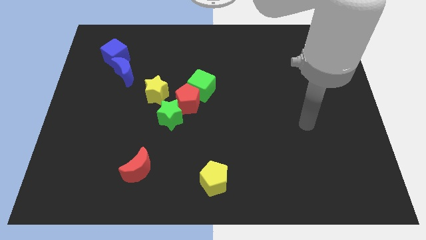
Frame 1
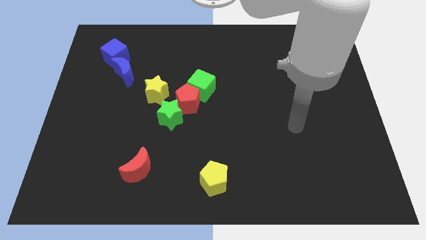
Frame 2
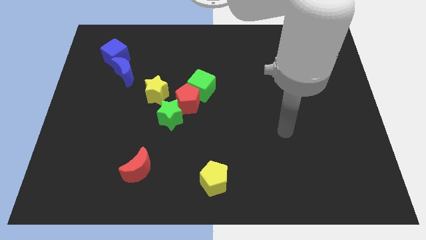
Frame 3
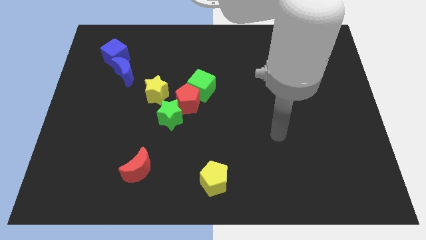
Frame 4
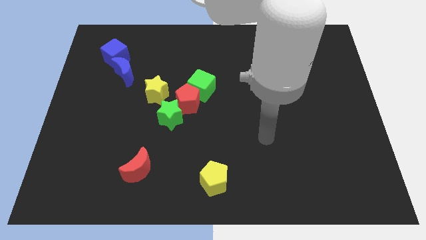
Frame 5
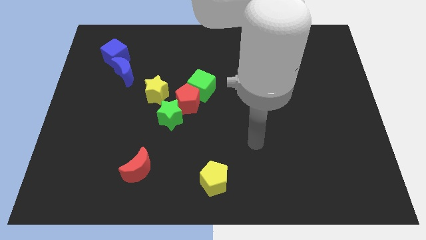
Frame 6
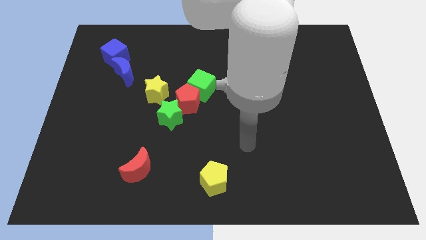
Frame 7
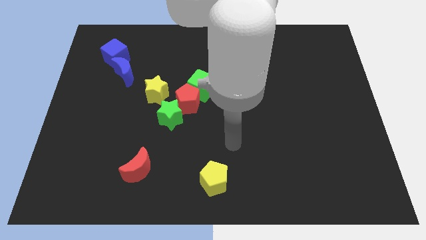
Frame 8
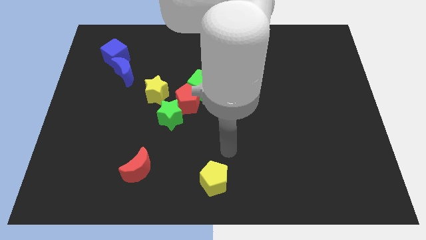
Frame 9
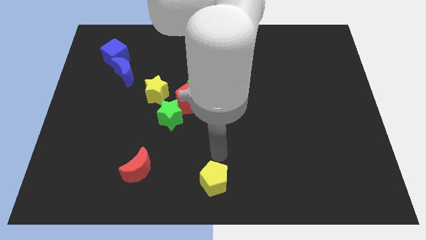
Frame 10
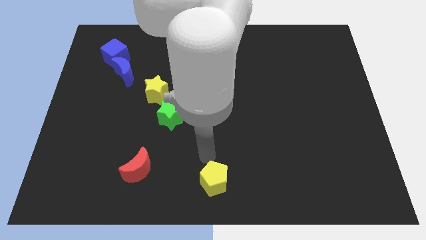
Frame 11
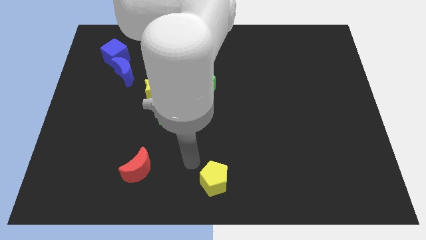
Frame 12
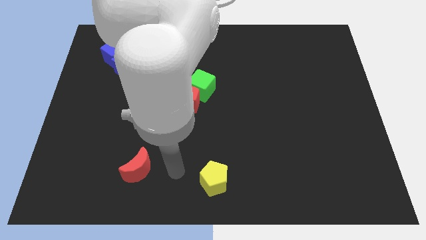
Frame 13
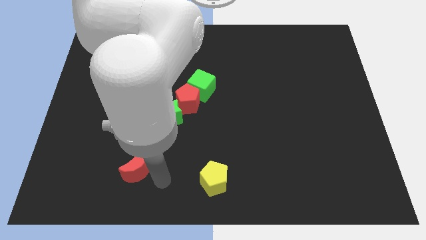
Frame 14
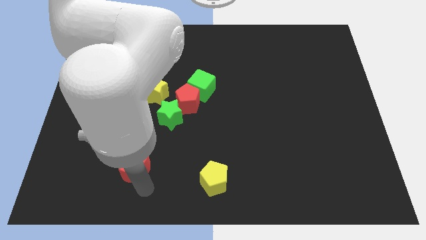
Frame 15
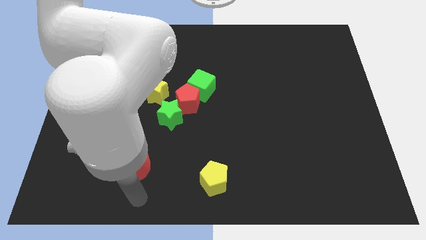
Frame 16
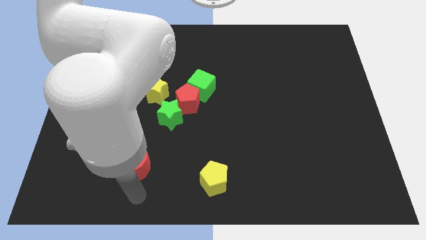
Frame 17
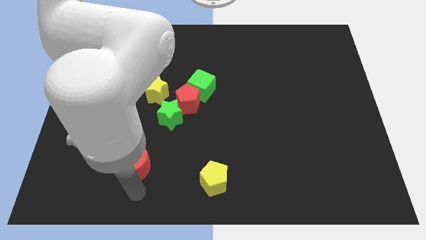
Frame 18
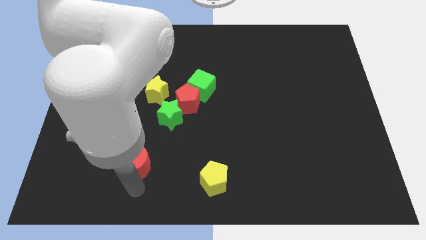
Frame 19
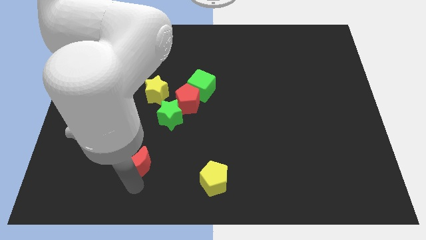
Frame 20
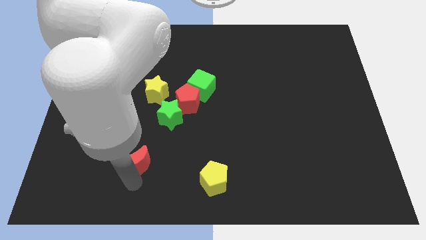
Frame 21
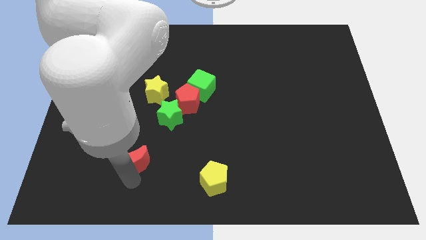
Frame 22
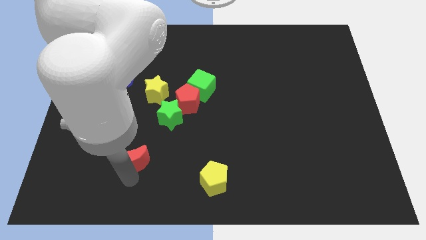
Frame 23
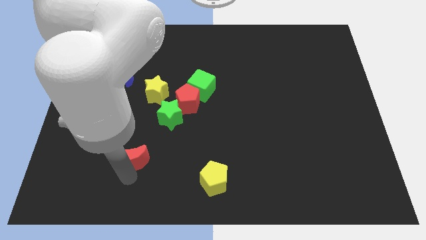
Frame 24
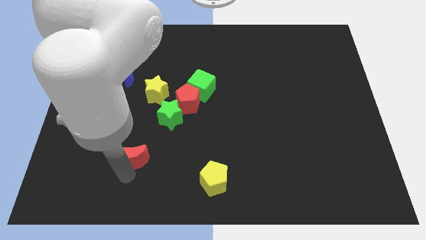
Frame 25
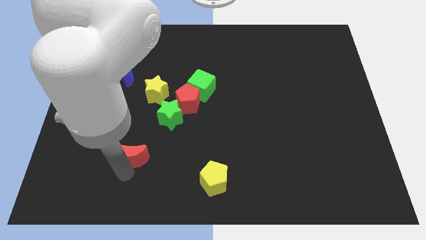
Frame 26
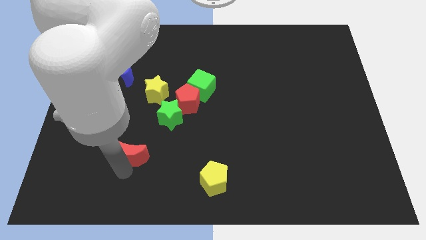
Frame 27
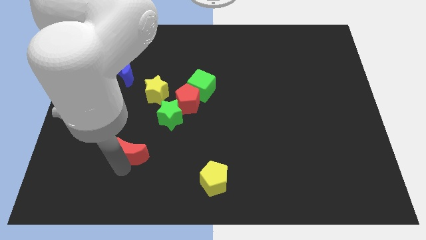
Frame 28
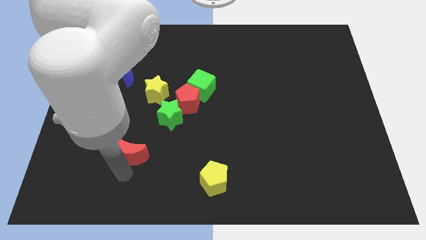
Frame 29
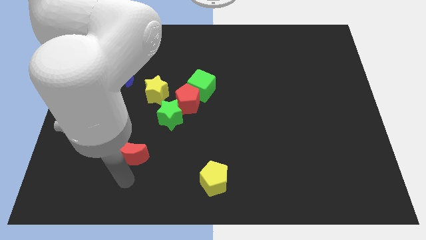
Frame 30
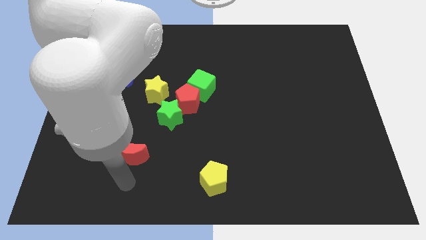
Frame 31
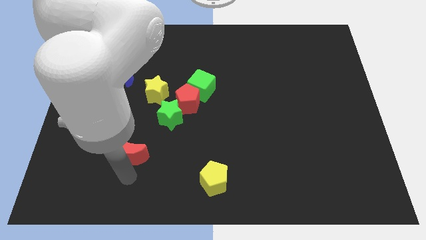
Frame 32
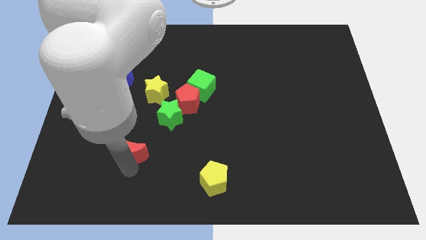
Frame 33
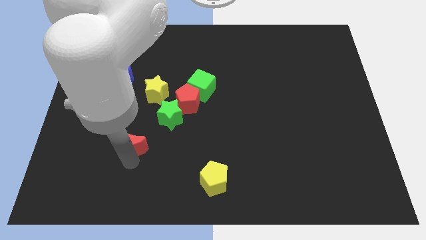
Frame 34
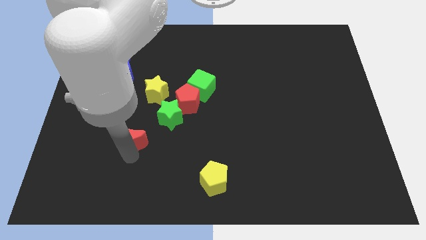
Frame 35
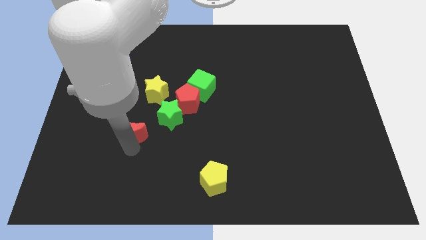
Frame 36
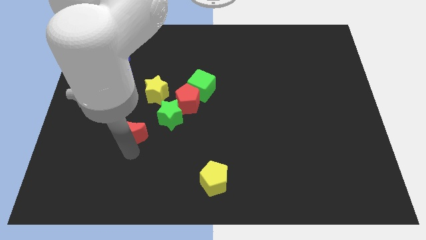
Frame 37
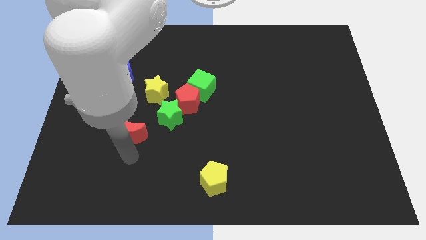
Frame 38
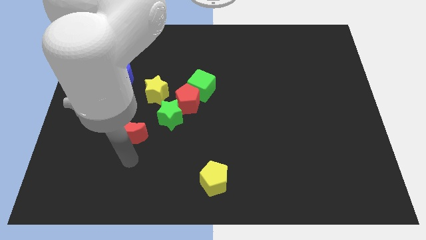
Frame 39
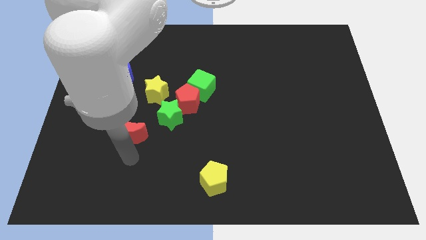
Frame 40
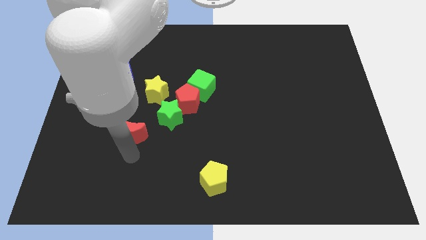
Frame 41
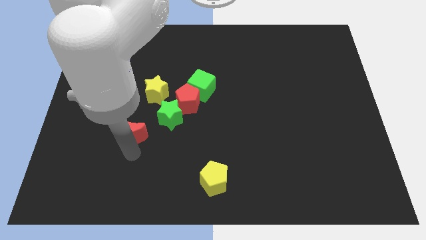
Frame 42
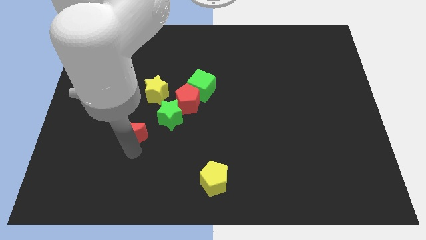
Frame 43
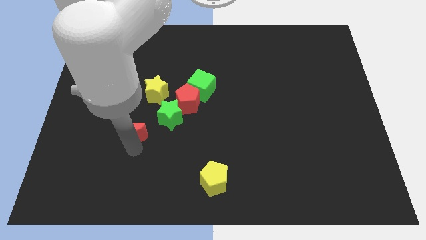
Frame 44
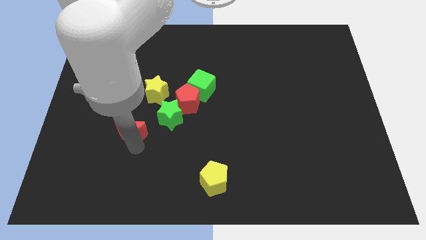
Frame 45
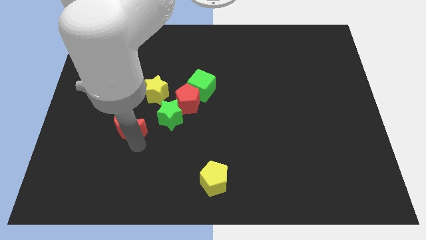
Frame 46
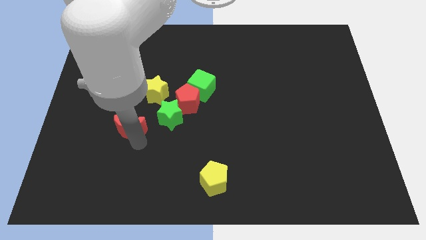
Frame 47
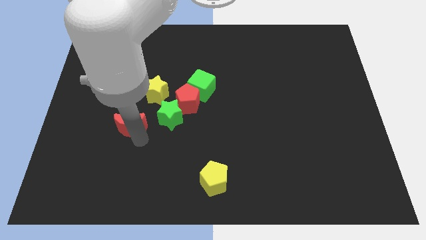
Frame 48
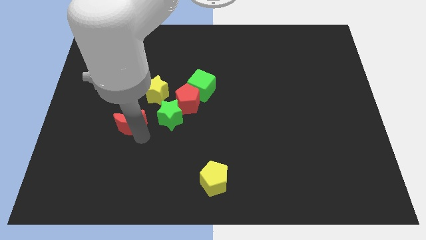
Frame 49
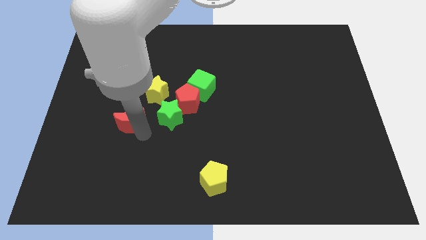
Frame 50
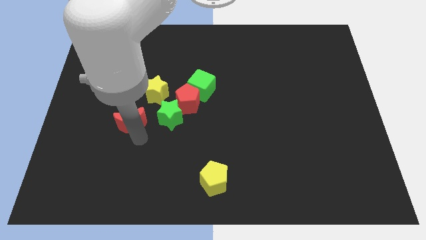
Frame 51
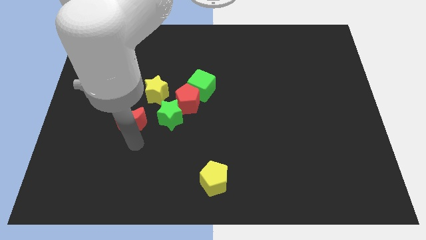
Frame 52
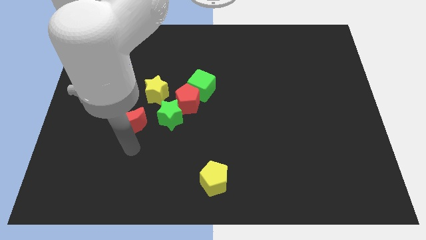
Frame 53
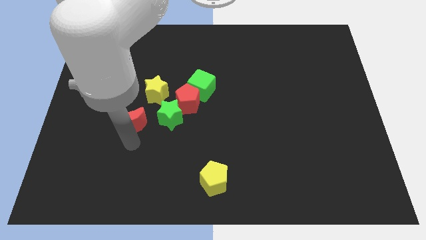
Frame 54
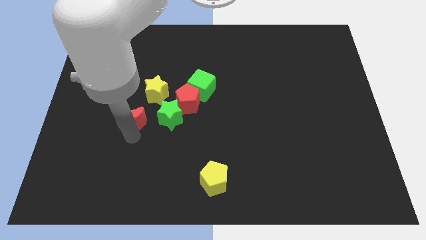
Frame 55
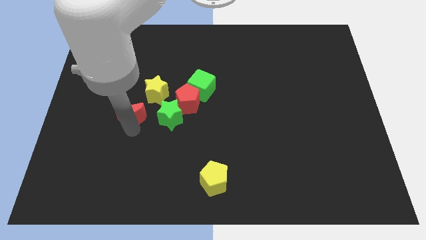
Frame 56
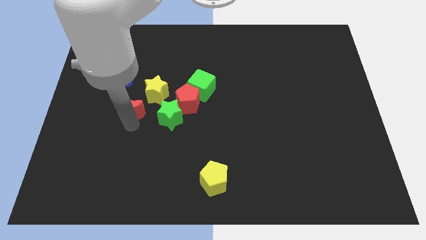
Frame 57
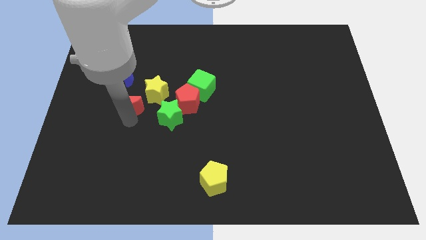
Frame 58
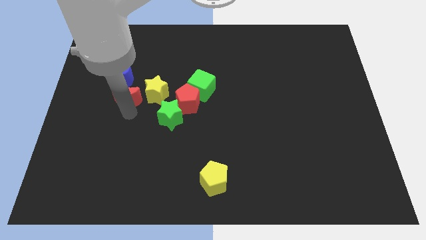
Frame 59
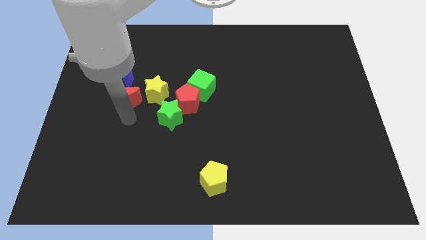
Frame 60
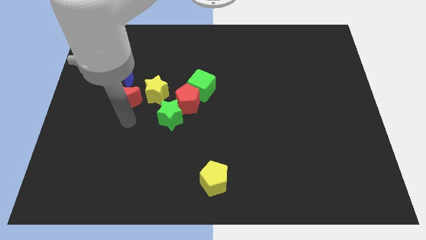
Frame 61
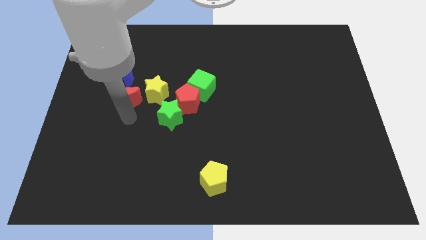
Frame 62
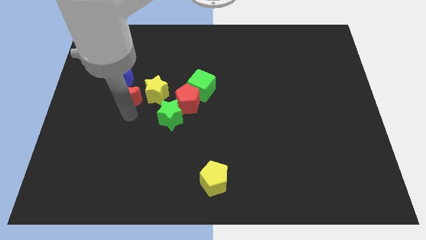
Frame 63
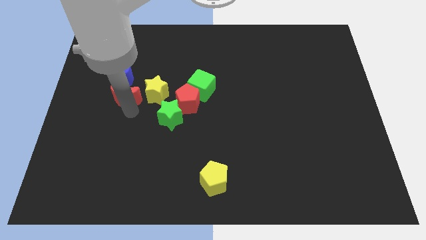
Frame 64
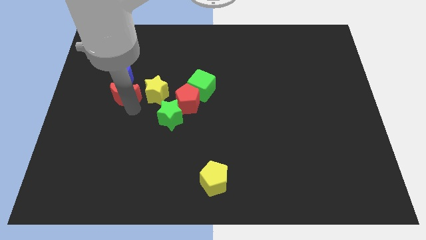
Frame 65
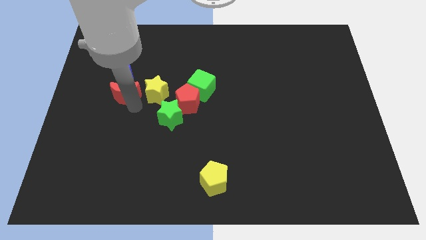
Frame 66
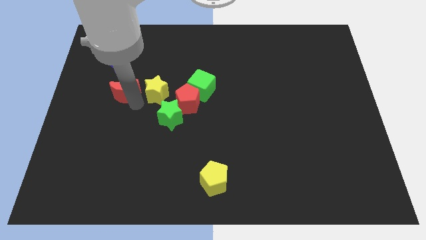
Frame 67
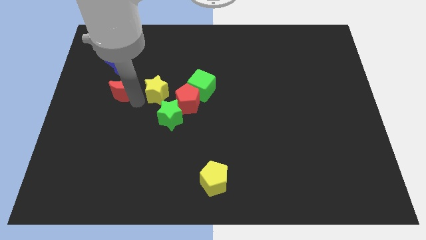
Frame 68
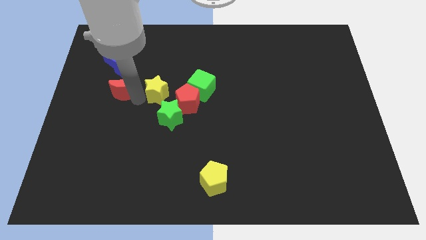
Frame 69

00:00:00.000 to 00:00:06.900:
put the red moon towards the blue moon

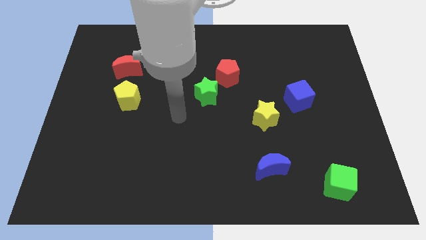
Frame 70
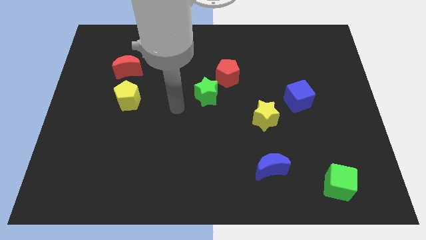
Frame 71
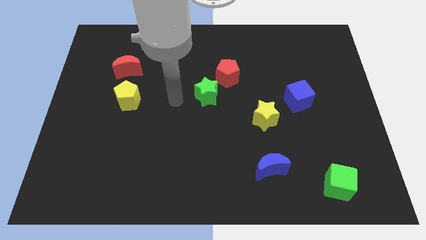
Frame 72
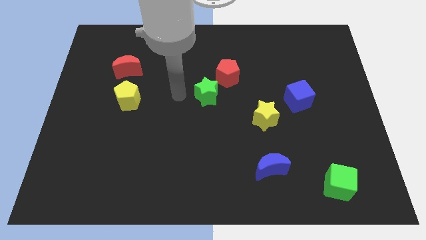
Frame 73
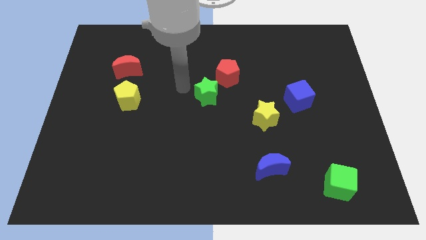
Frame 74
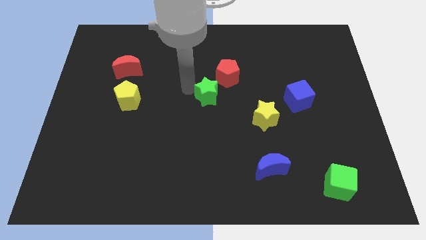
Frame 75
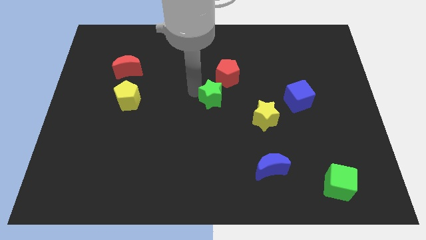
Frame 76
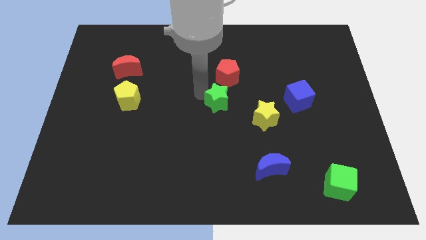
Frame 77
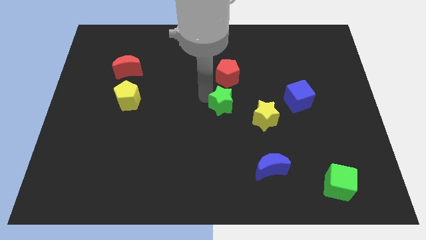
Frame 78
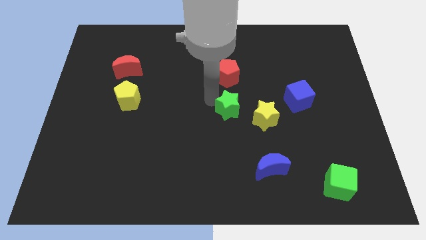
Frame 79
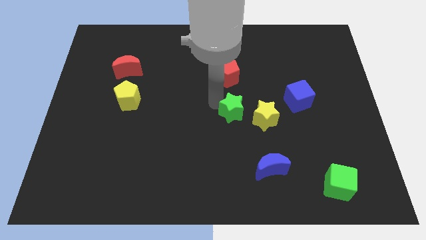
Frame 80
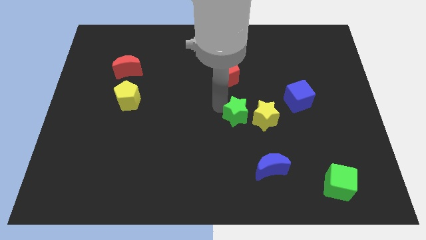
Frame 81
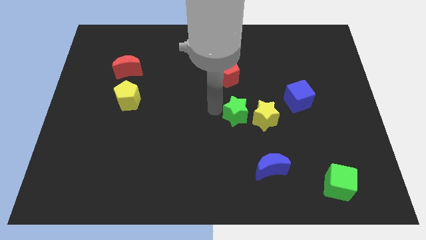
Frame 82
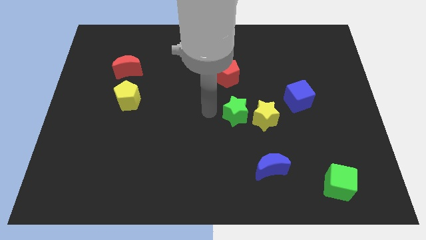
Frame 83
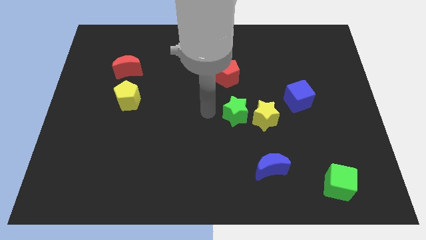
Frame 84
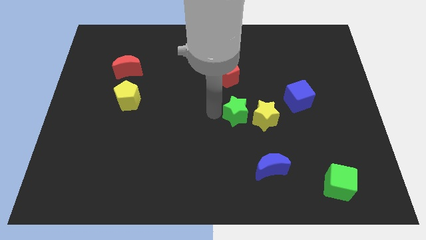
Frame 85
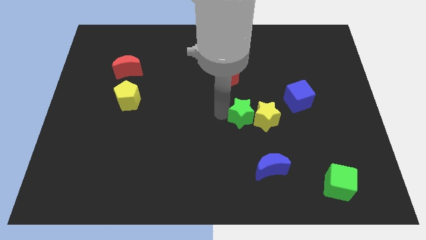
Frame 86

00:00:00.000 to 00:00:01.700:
push the green star towards the yellow star
